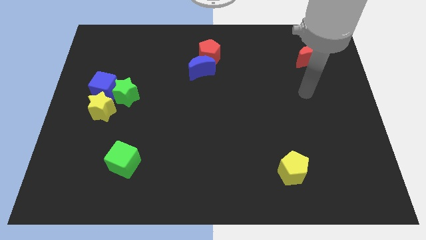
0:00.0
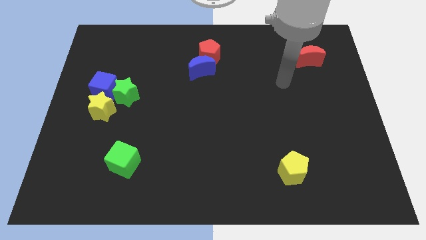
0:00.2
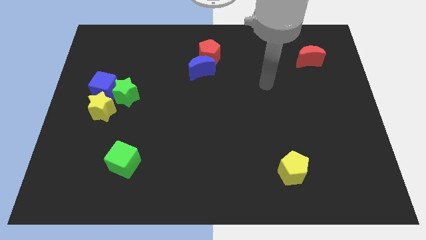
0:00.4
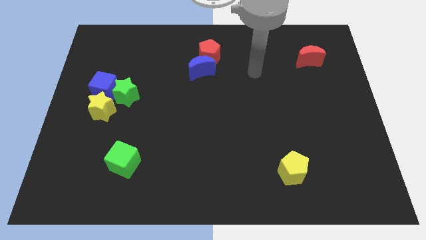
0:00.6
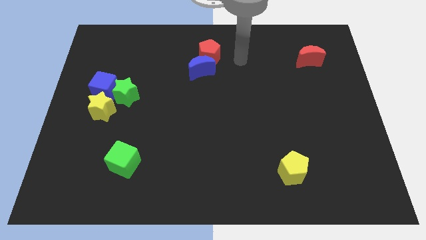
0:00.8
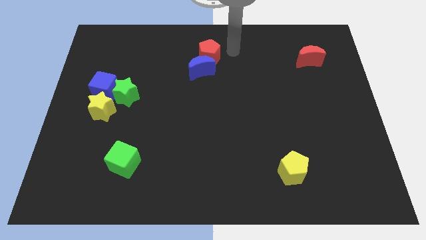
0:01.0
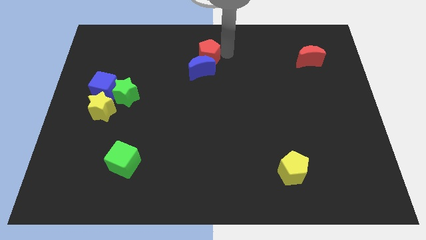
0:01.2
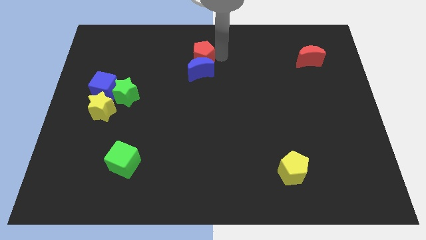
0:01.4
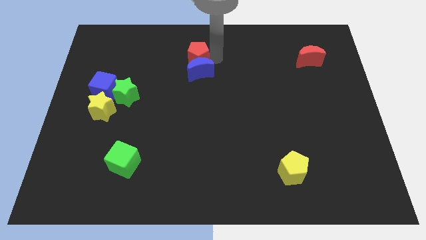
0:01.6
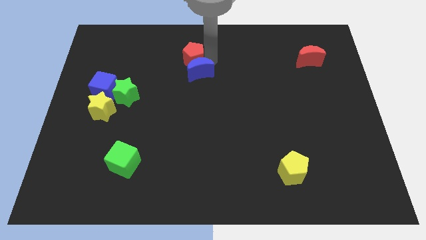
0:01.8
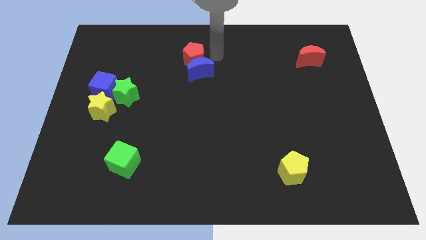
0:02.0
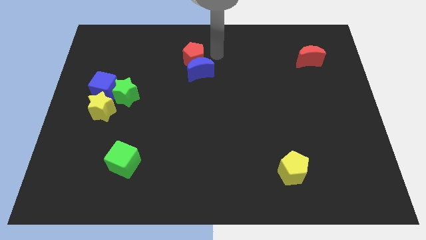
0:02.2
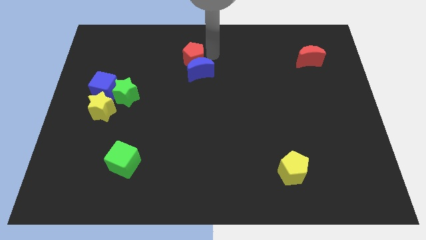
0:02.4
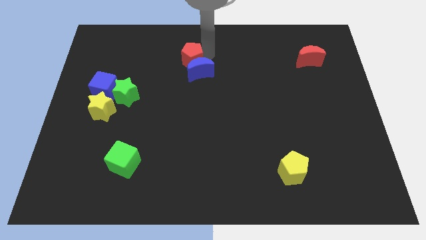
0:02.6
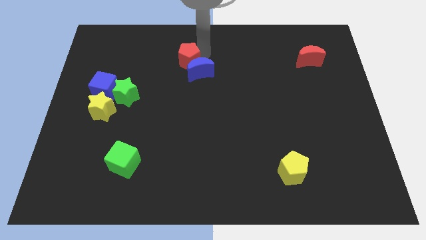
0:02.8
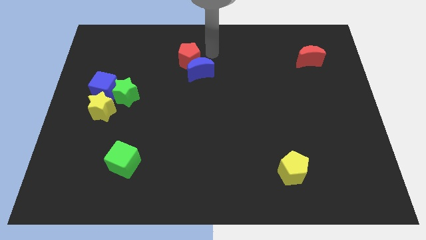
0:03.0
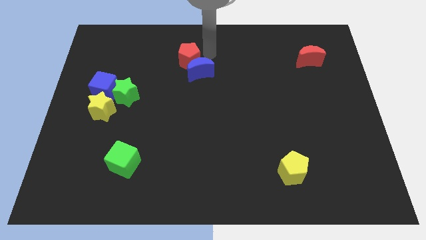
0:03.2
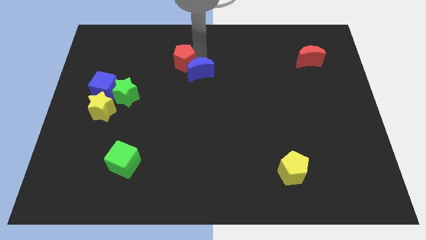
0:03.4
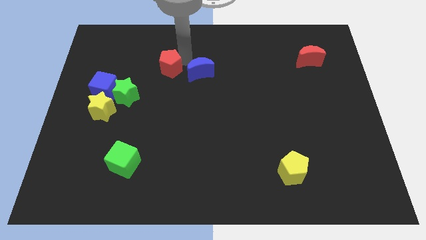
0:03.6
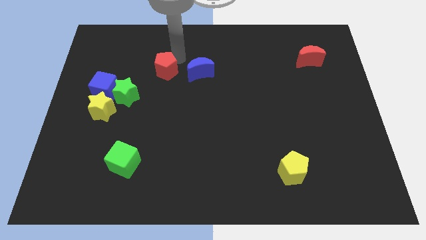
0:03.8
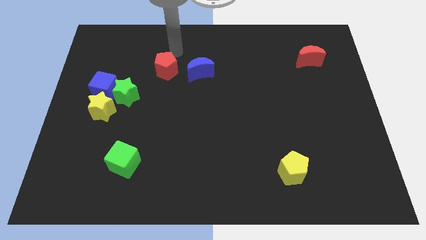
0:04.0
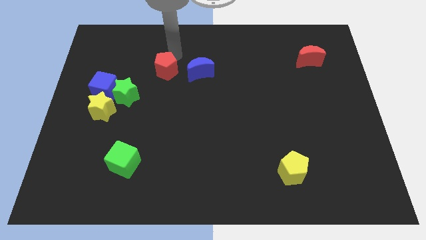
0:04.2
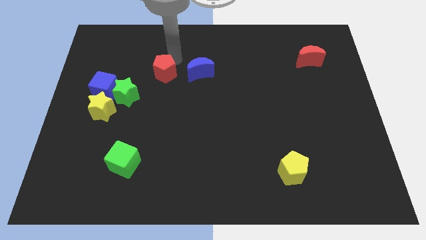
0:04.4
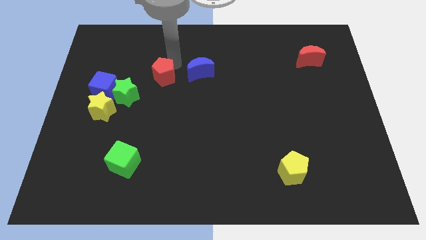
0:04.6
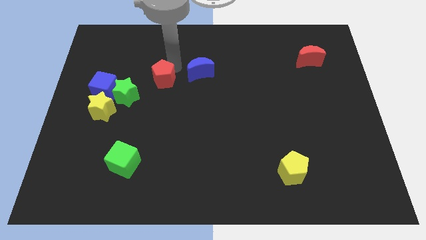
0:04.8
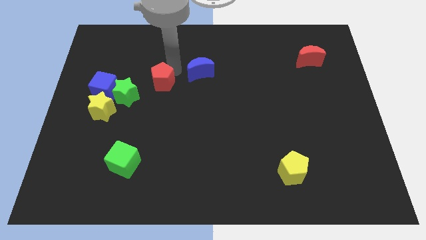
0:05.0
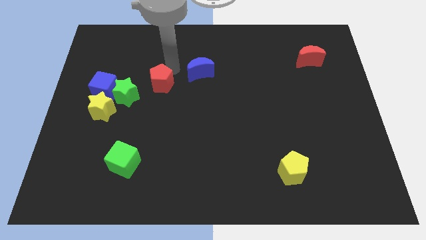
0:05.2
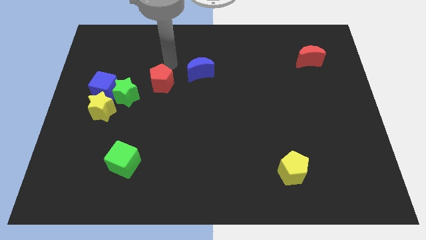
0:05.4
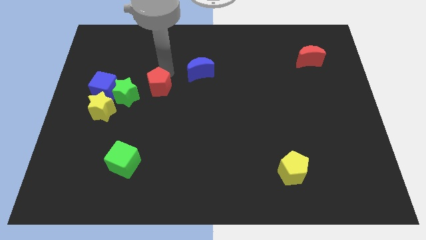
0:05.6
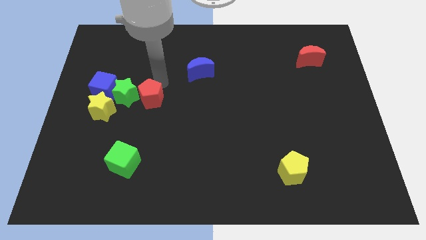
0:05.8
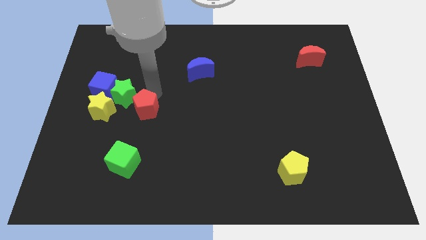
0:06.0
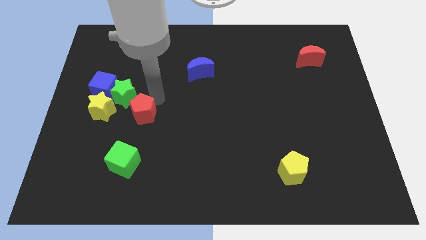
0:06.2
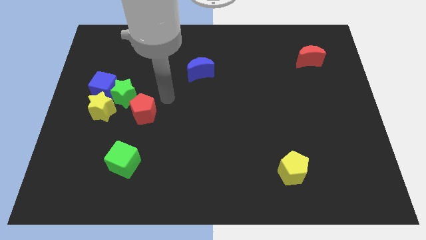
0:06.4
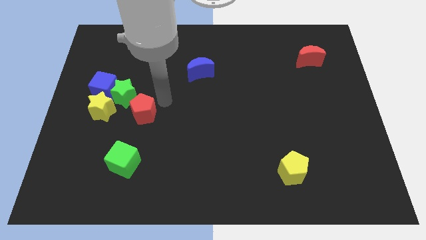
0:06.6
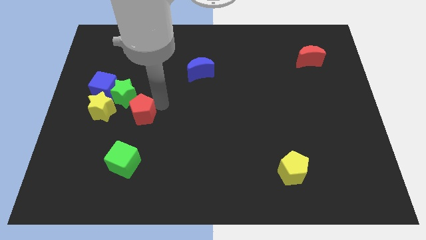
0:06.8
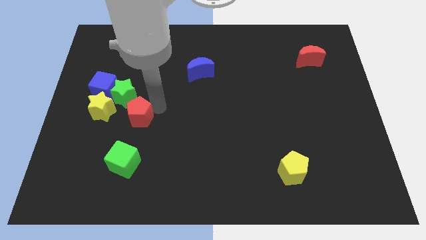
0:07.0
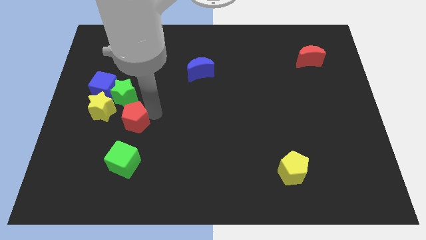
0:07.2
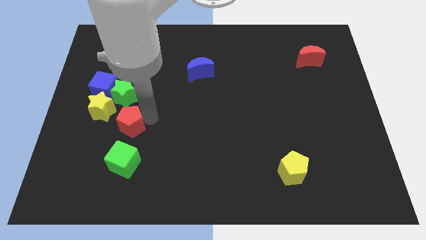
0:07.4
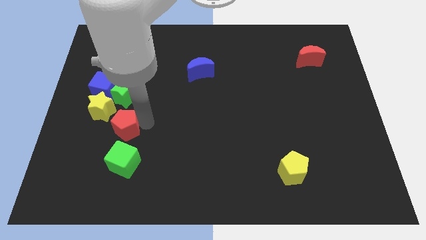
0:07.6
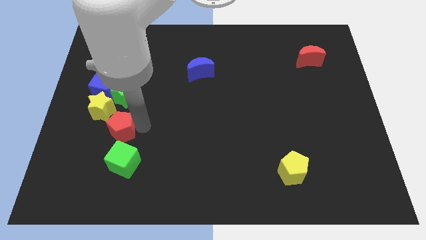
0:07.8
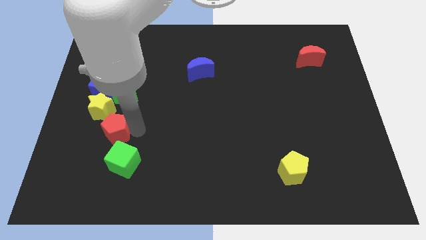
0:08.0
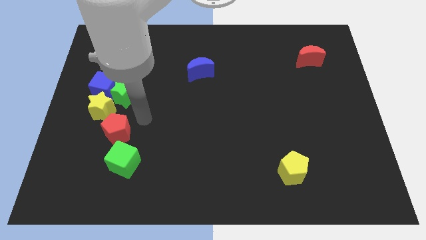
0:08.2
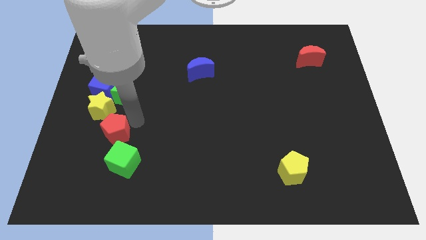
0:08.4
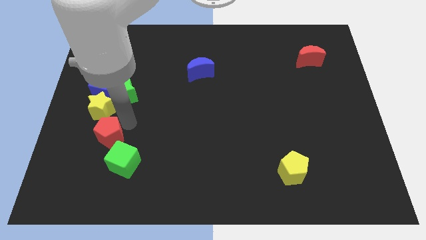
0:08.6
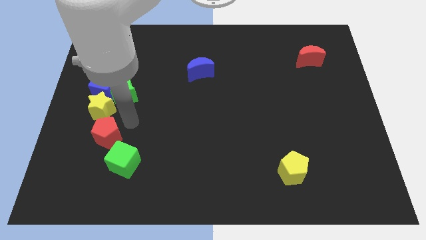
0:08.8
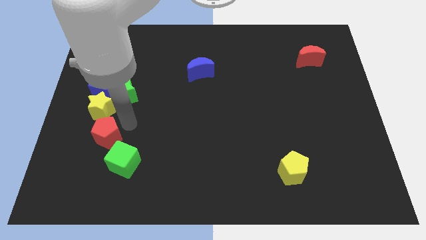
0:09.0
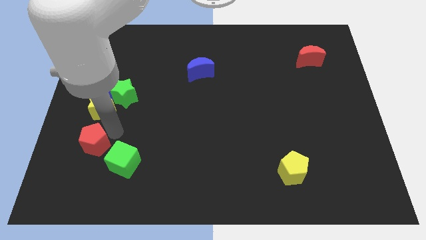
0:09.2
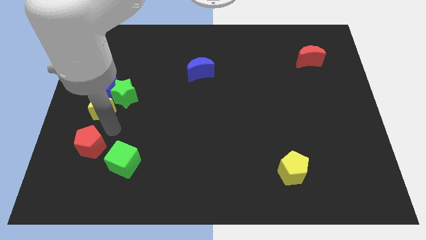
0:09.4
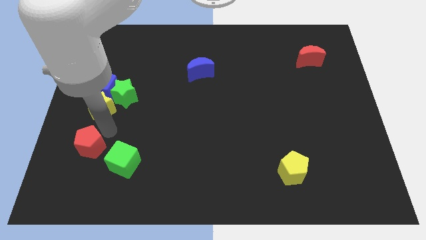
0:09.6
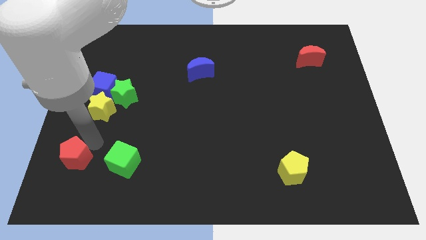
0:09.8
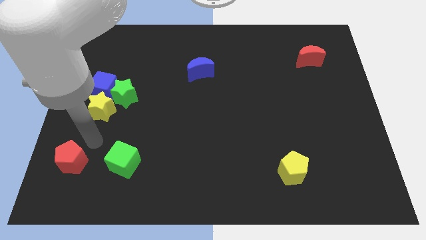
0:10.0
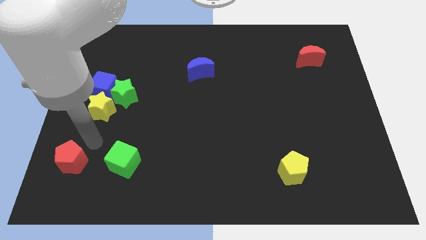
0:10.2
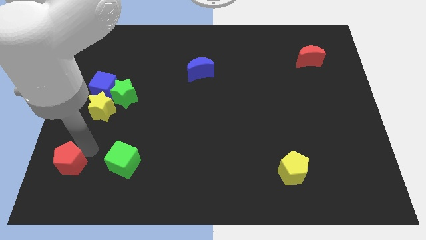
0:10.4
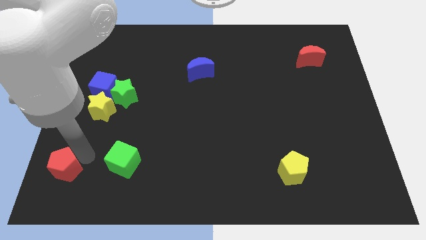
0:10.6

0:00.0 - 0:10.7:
put the red pentagon to the bottom left corner

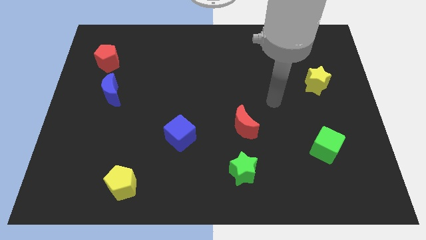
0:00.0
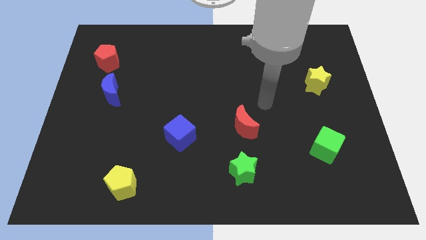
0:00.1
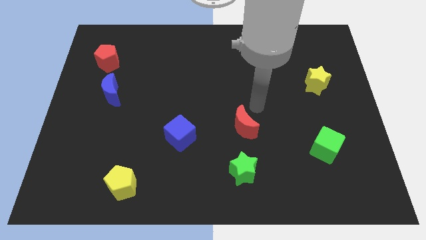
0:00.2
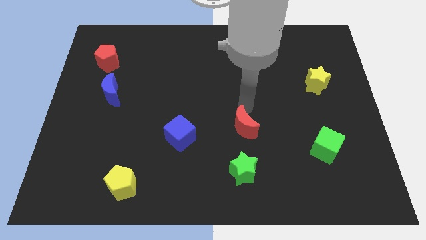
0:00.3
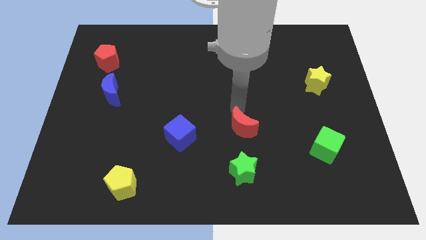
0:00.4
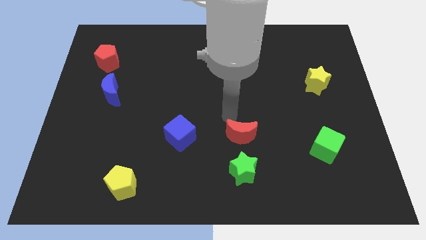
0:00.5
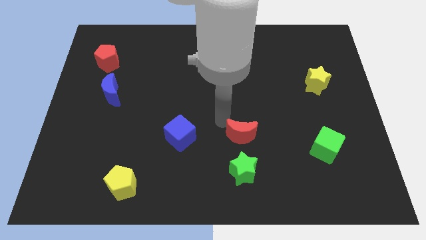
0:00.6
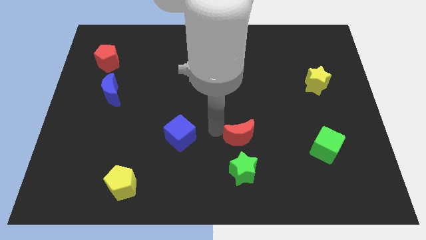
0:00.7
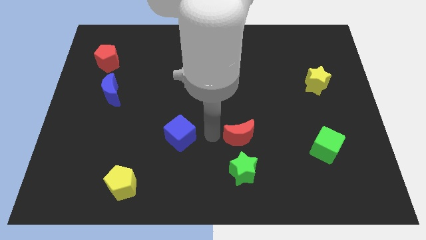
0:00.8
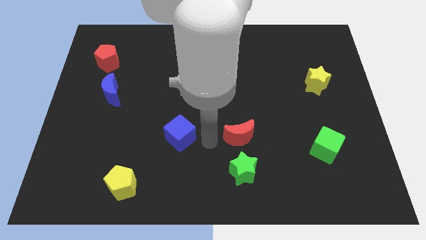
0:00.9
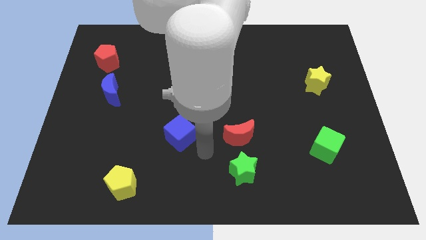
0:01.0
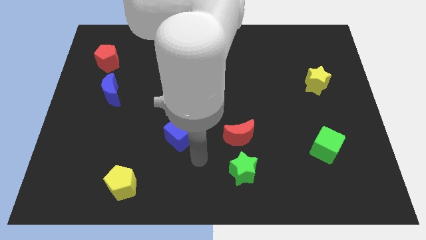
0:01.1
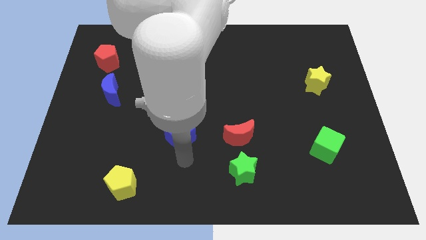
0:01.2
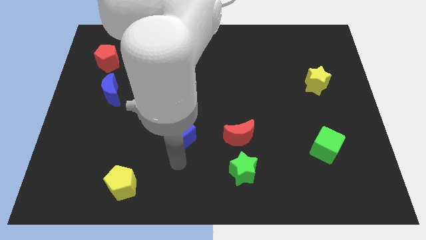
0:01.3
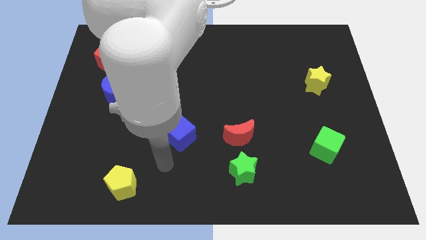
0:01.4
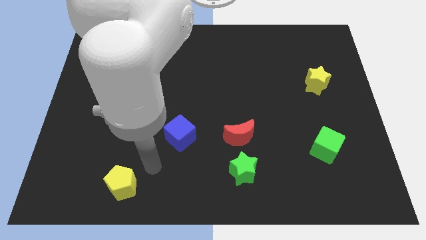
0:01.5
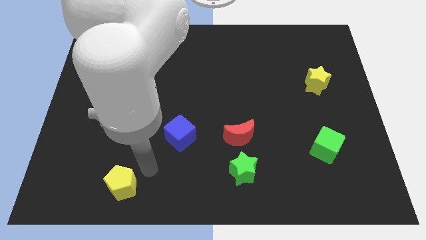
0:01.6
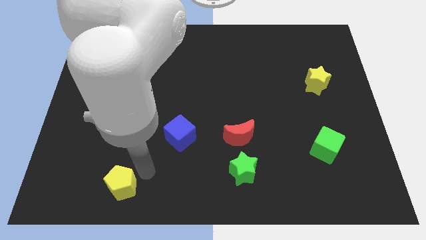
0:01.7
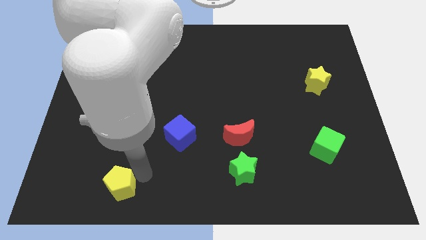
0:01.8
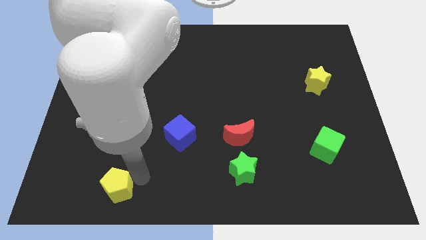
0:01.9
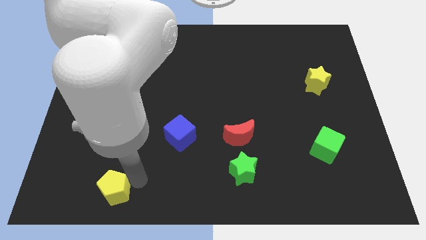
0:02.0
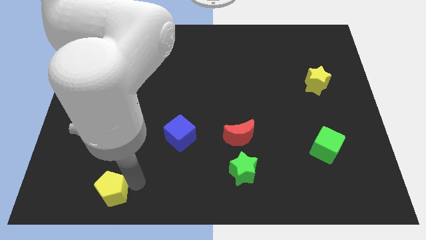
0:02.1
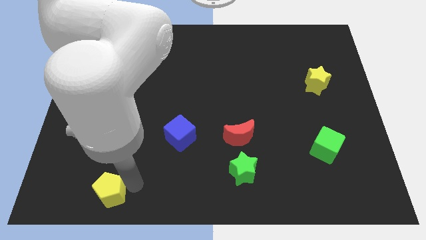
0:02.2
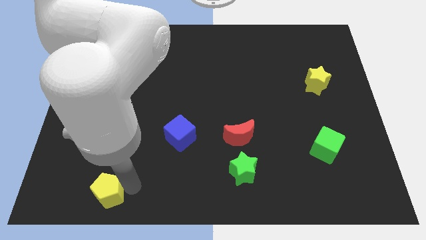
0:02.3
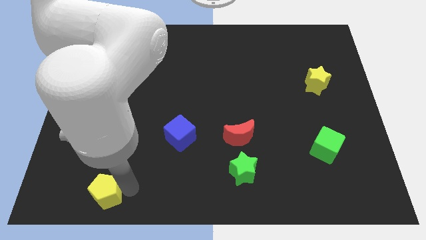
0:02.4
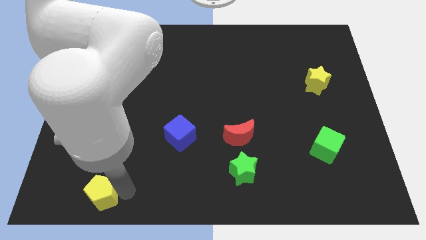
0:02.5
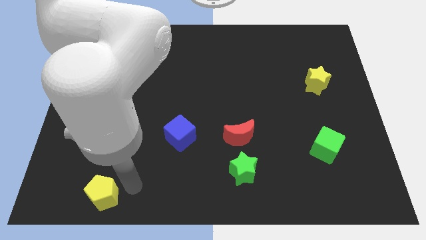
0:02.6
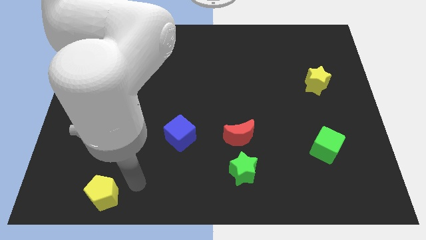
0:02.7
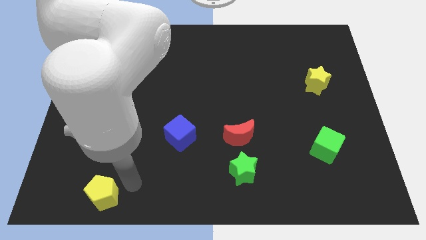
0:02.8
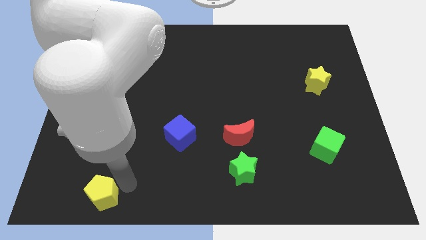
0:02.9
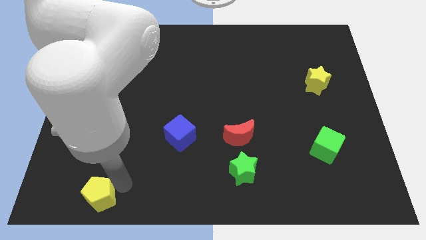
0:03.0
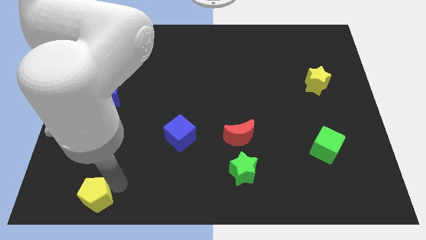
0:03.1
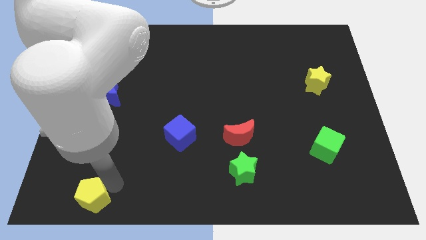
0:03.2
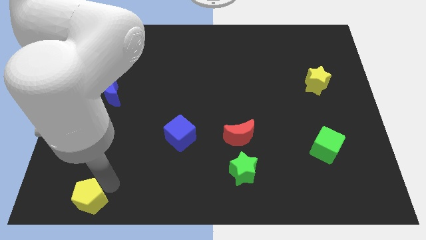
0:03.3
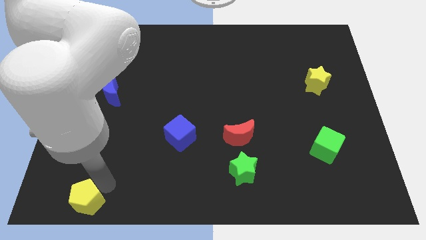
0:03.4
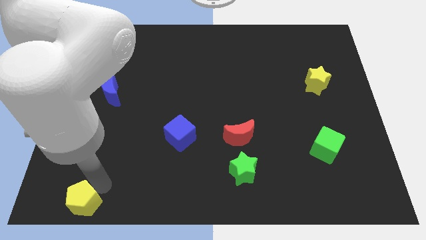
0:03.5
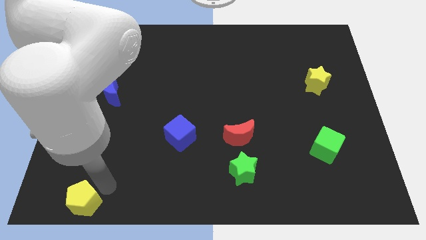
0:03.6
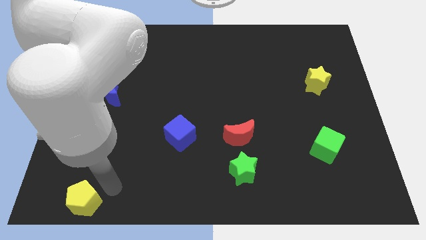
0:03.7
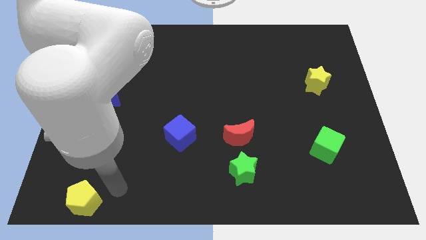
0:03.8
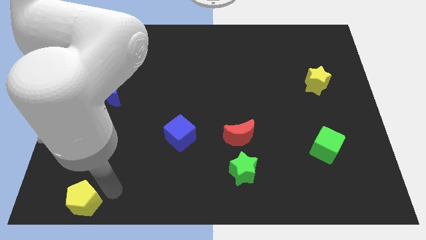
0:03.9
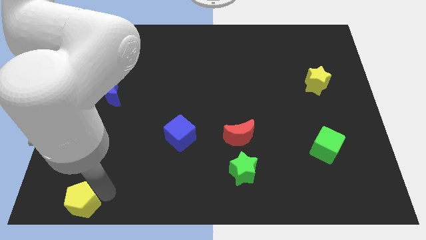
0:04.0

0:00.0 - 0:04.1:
push the yellow pentagon to the bottom left
